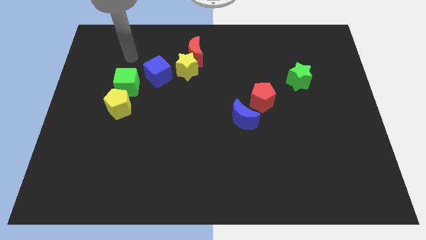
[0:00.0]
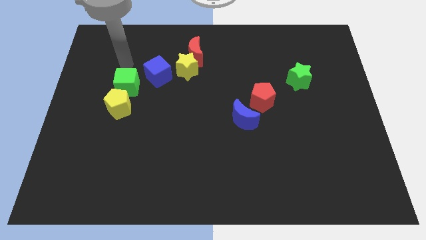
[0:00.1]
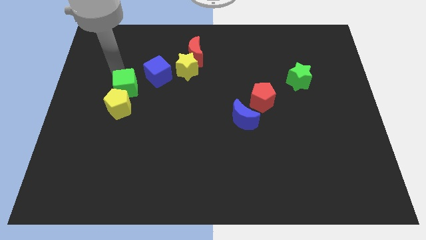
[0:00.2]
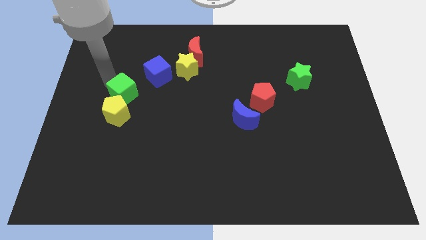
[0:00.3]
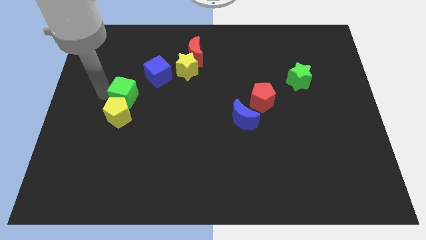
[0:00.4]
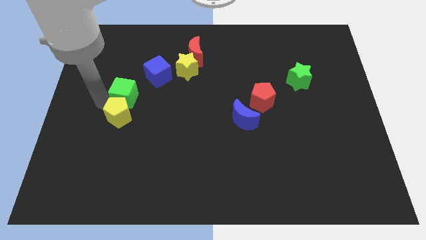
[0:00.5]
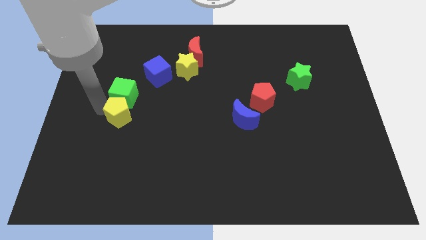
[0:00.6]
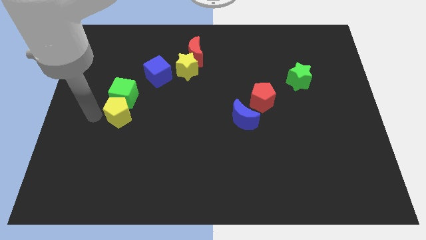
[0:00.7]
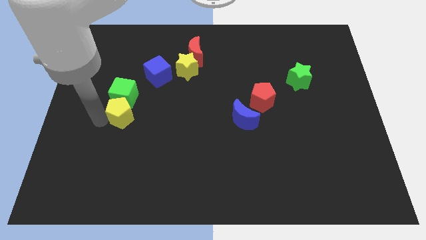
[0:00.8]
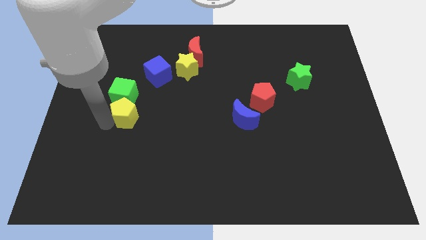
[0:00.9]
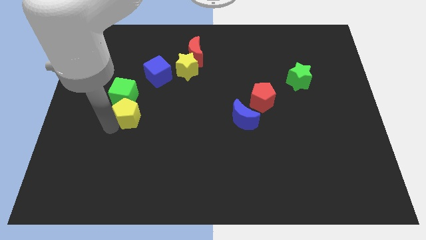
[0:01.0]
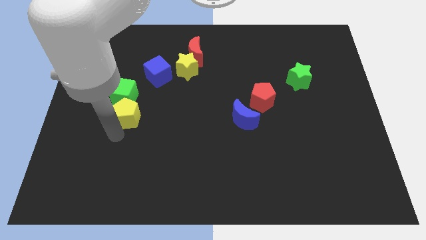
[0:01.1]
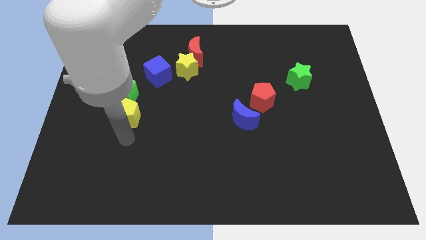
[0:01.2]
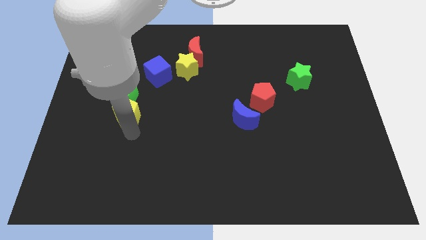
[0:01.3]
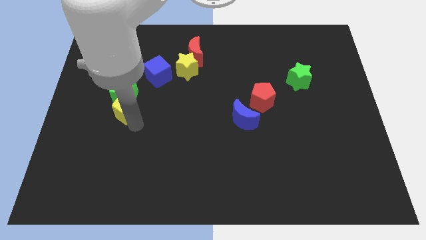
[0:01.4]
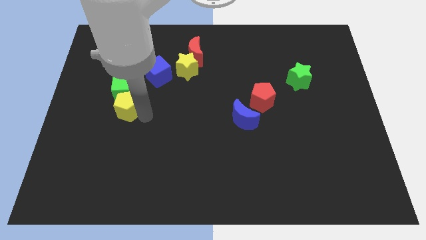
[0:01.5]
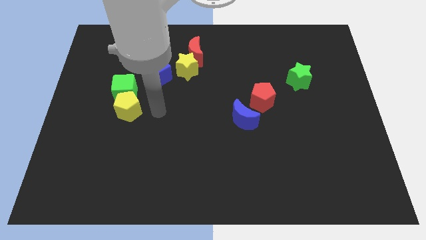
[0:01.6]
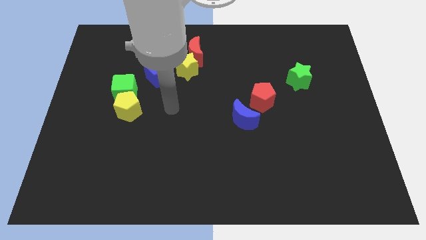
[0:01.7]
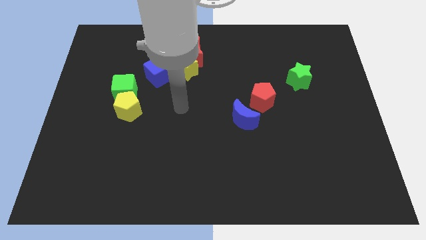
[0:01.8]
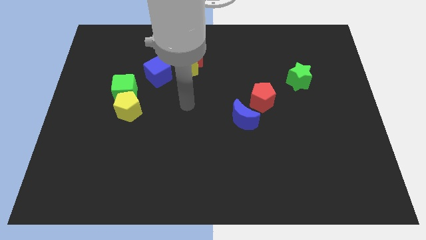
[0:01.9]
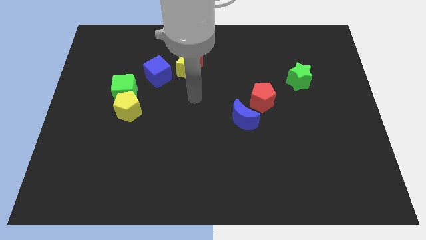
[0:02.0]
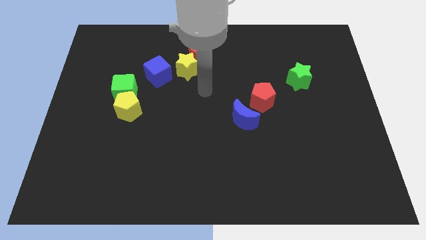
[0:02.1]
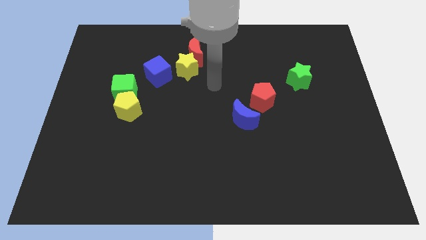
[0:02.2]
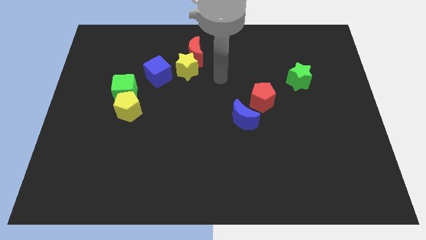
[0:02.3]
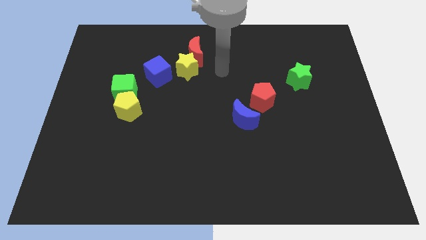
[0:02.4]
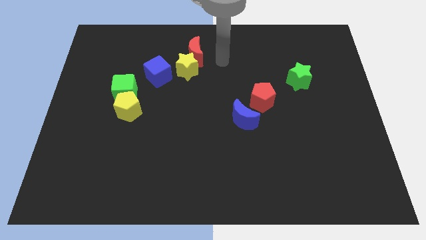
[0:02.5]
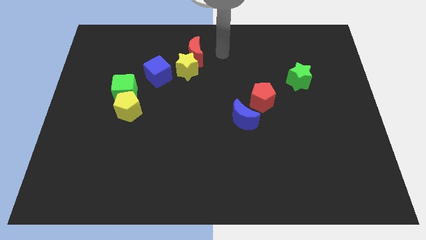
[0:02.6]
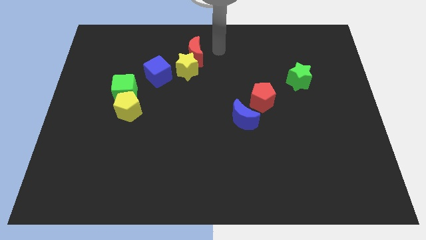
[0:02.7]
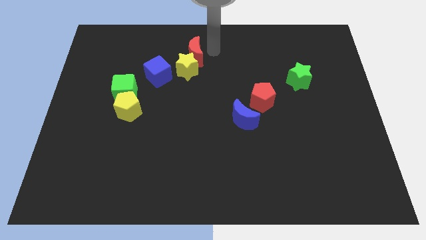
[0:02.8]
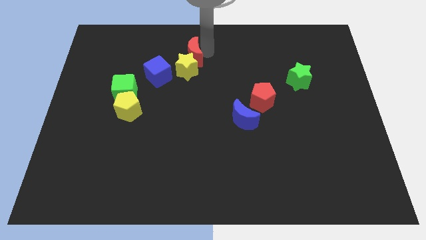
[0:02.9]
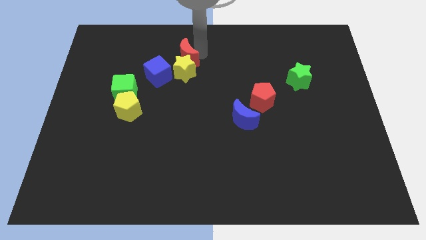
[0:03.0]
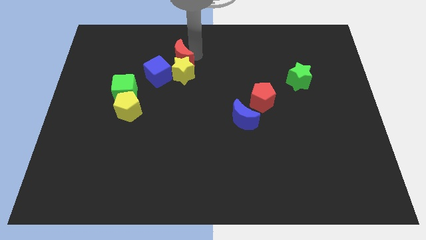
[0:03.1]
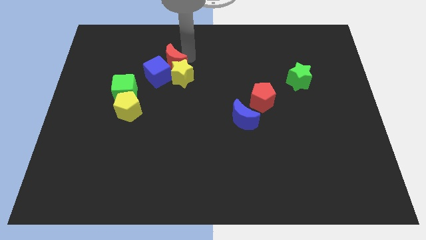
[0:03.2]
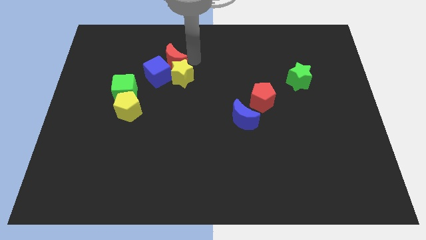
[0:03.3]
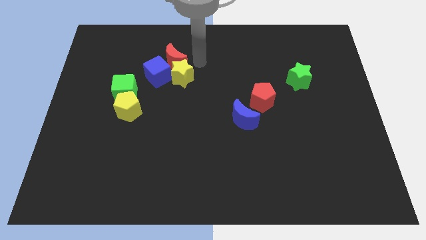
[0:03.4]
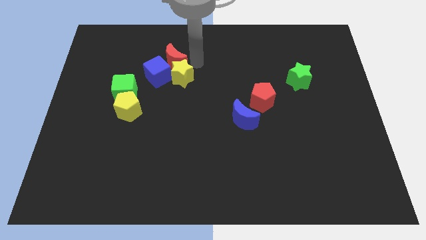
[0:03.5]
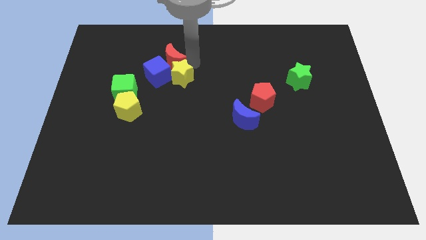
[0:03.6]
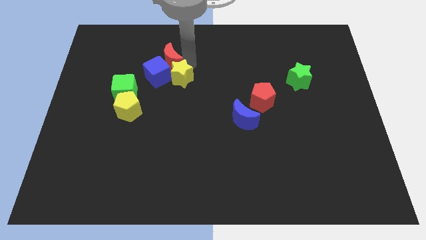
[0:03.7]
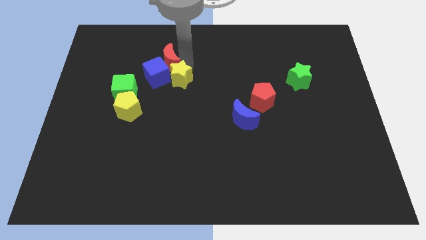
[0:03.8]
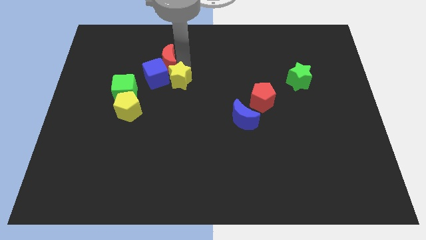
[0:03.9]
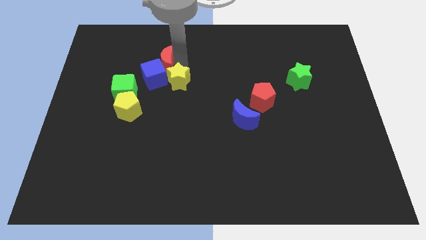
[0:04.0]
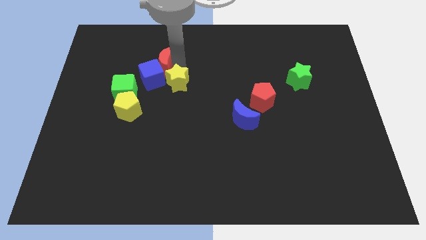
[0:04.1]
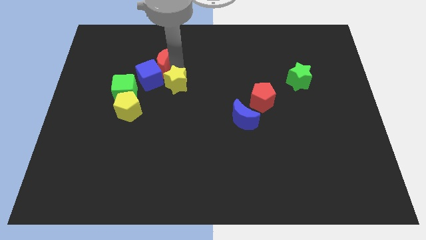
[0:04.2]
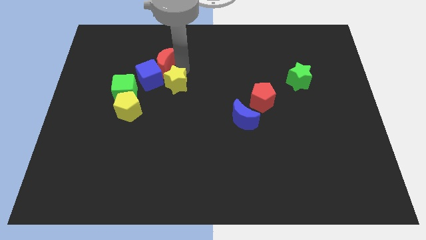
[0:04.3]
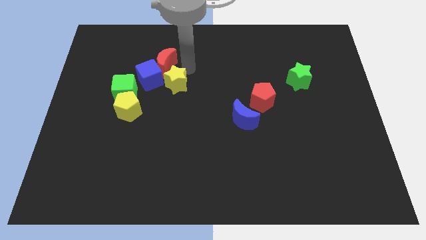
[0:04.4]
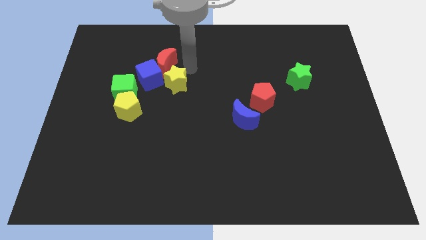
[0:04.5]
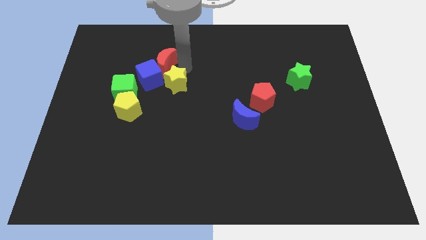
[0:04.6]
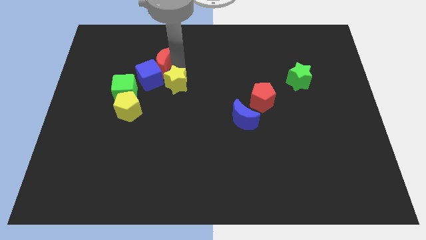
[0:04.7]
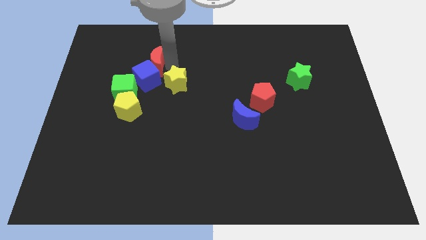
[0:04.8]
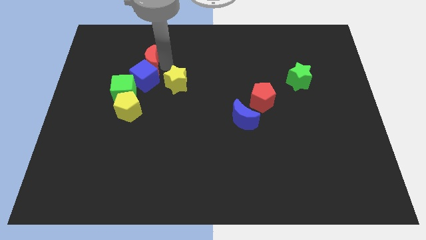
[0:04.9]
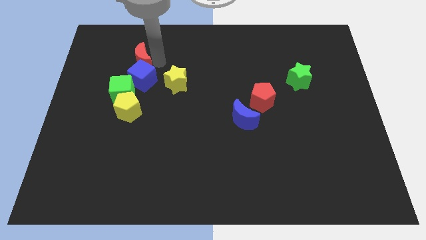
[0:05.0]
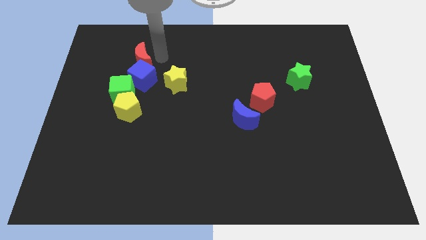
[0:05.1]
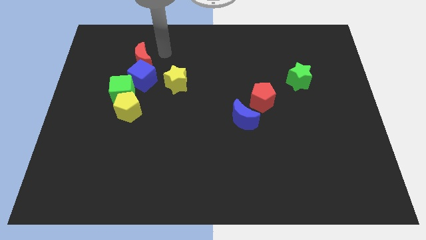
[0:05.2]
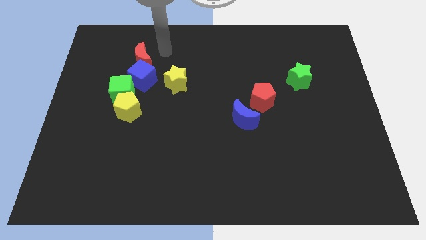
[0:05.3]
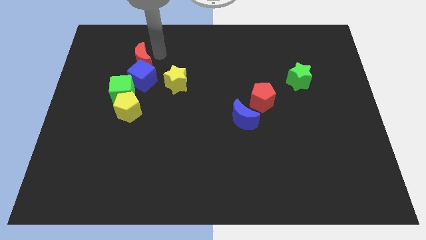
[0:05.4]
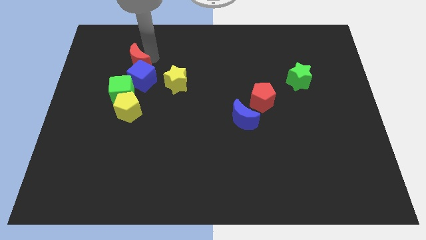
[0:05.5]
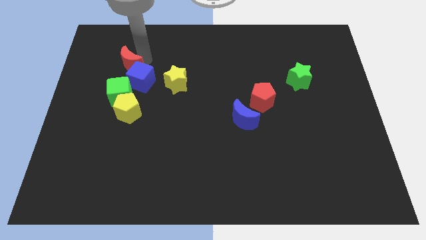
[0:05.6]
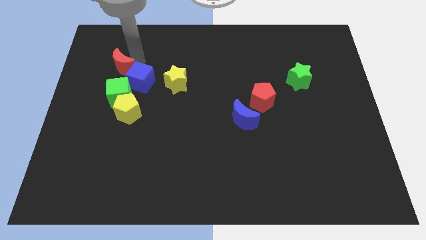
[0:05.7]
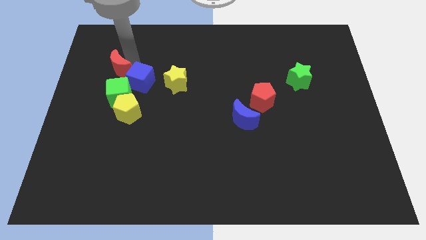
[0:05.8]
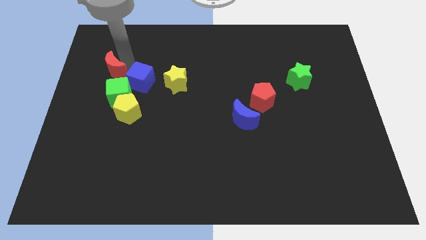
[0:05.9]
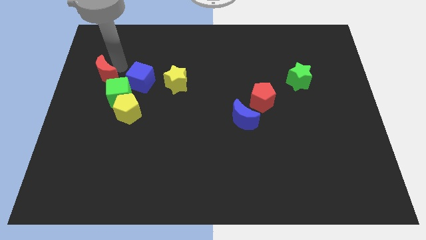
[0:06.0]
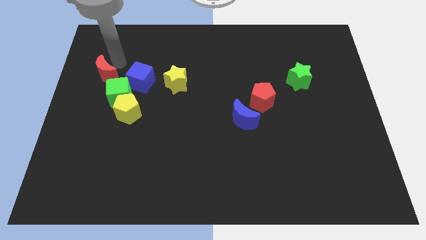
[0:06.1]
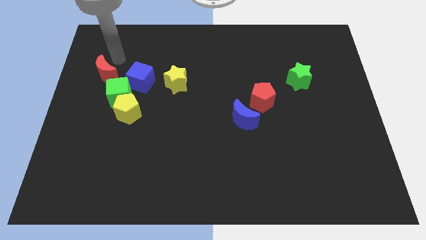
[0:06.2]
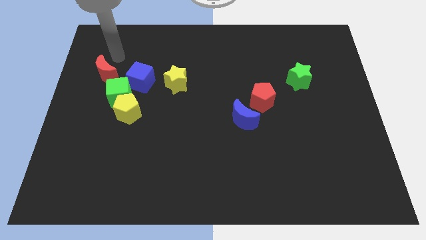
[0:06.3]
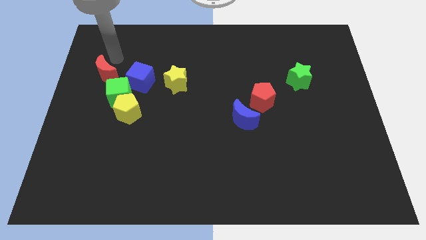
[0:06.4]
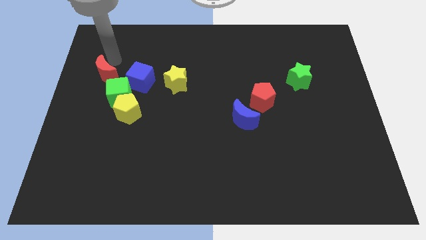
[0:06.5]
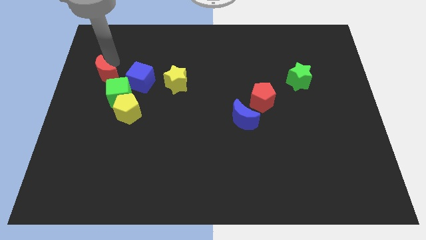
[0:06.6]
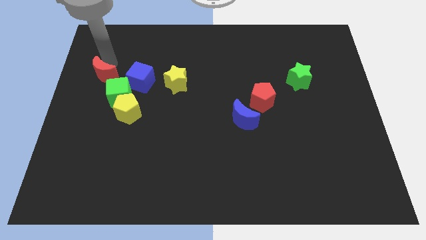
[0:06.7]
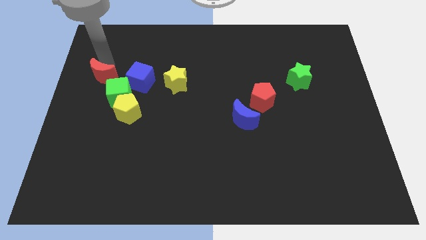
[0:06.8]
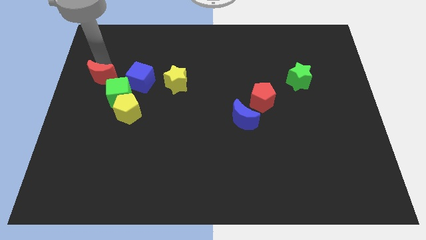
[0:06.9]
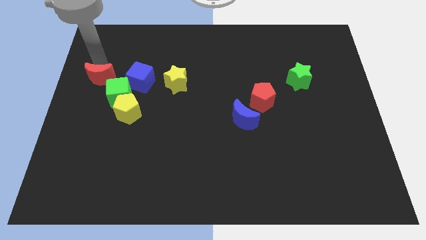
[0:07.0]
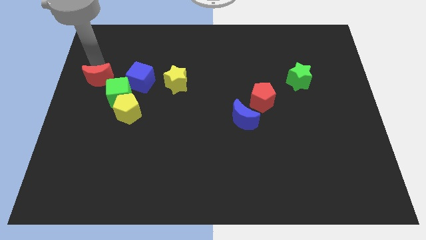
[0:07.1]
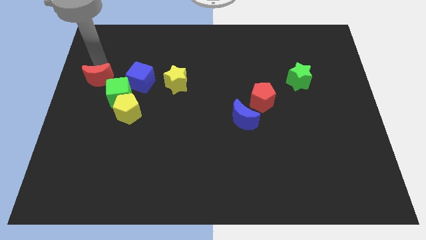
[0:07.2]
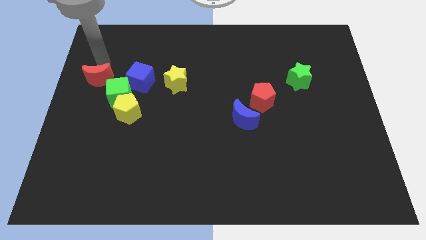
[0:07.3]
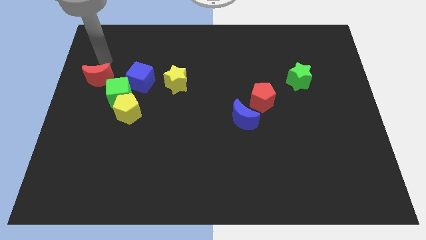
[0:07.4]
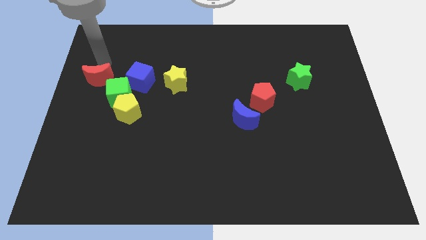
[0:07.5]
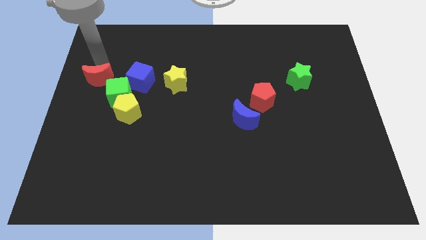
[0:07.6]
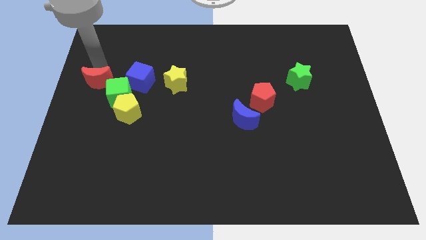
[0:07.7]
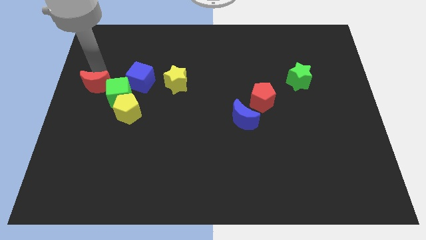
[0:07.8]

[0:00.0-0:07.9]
move the red moon downwards and left
